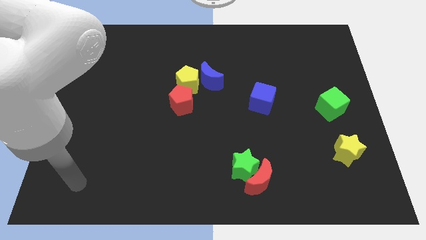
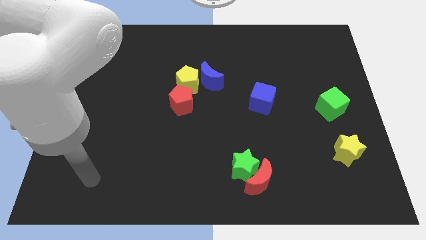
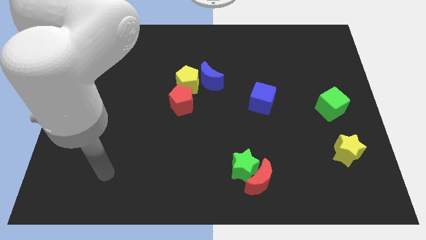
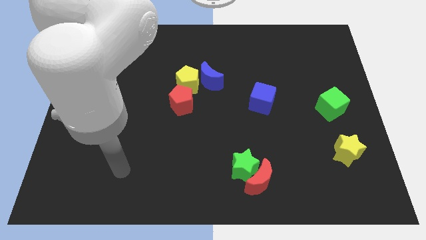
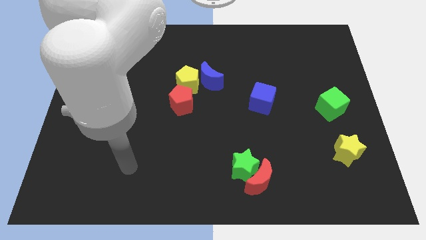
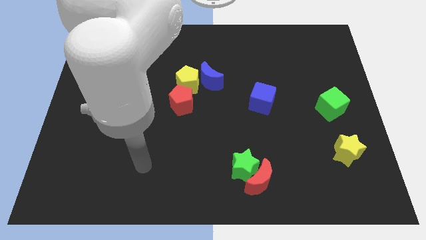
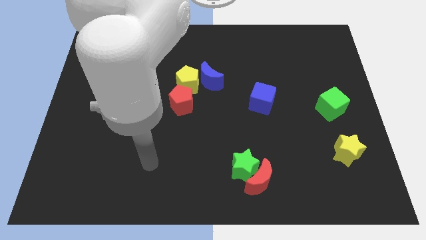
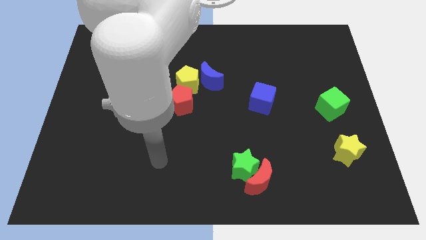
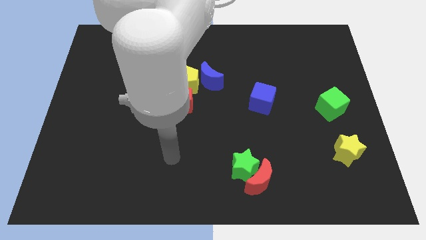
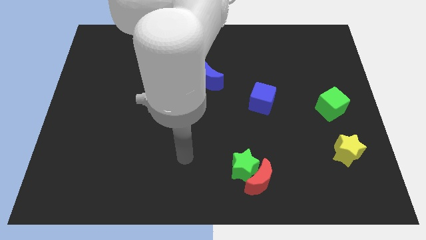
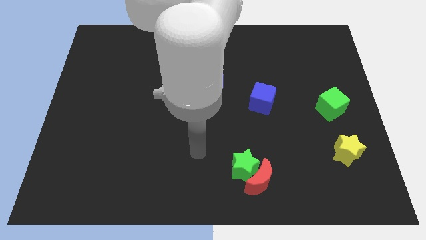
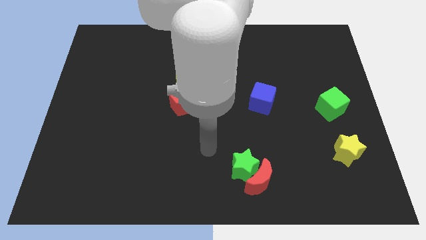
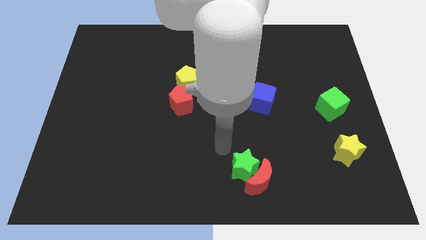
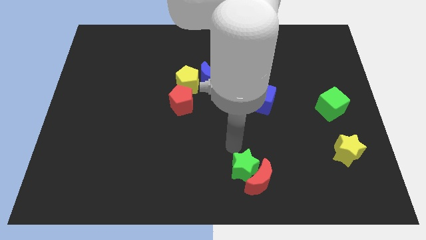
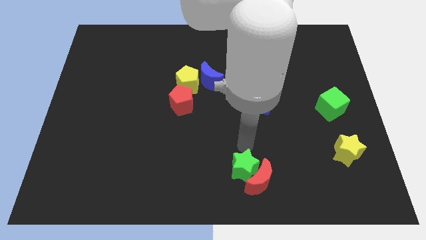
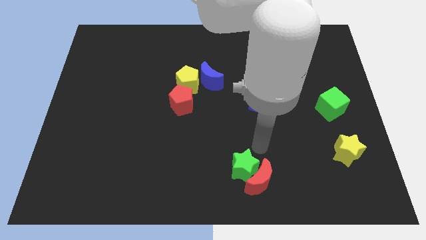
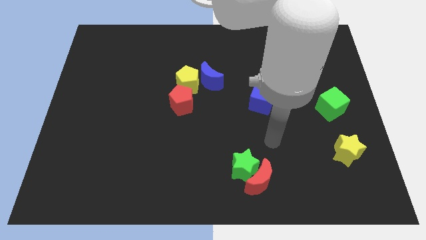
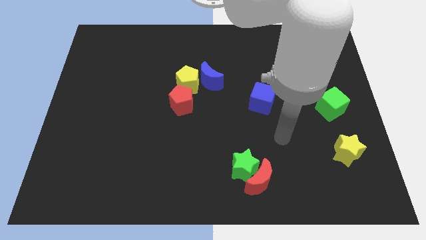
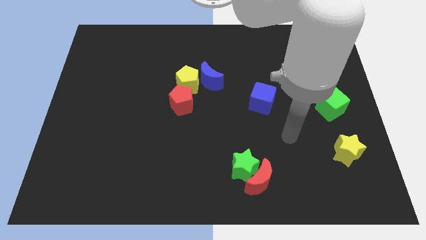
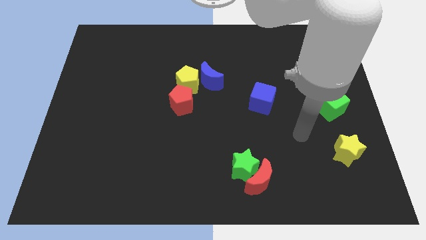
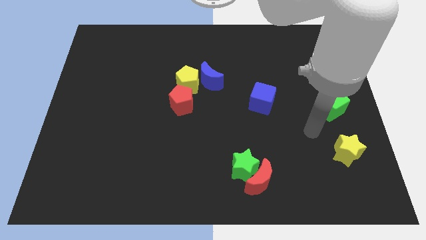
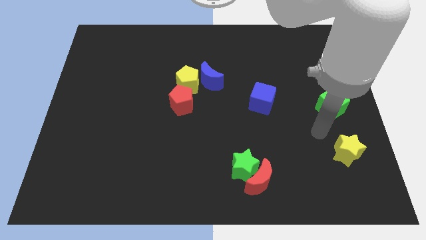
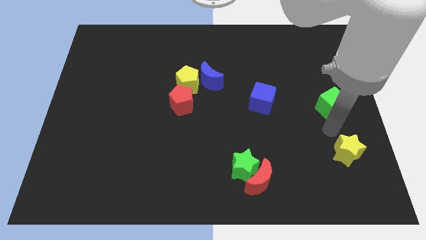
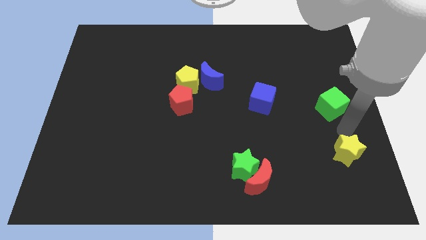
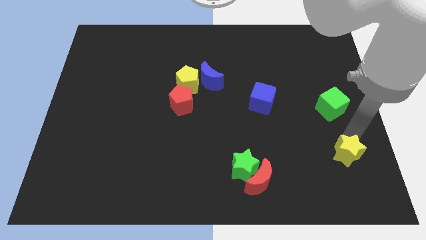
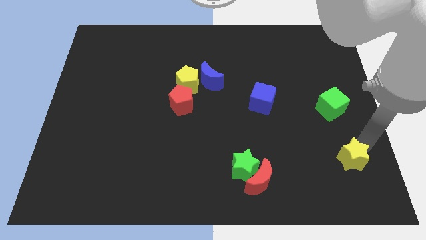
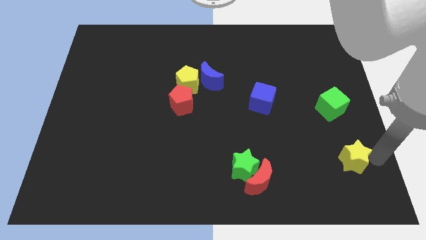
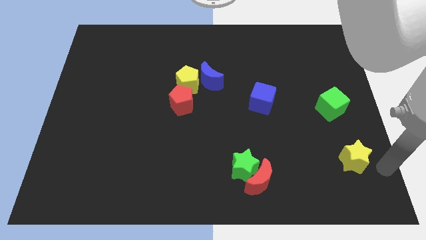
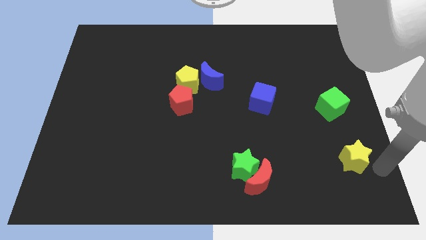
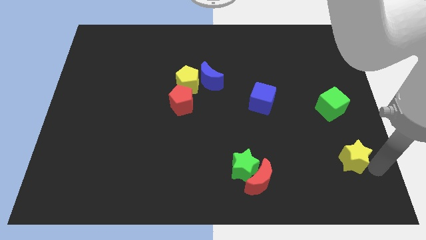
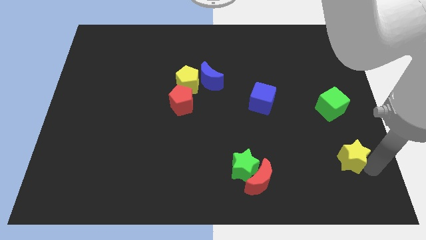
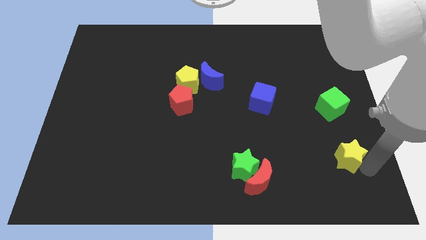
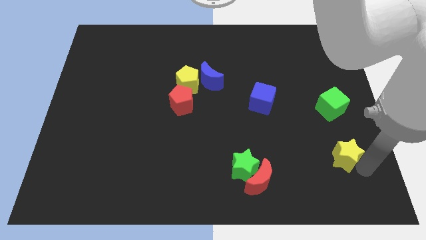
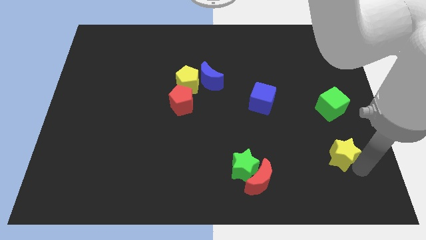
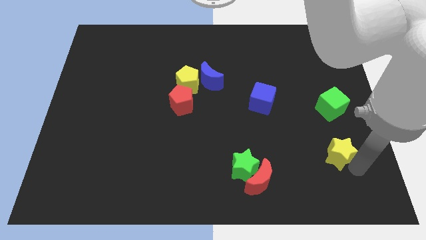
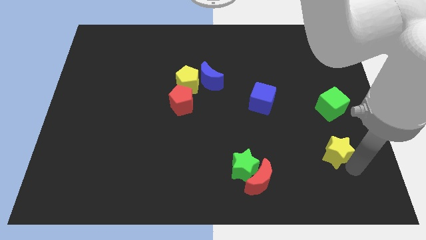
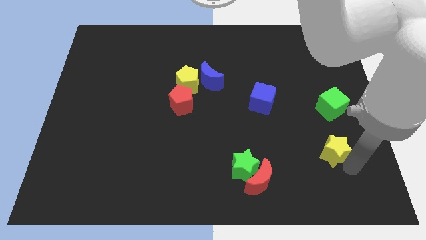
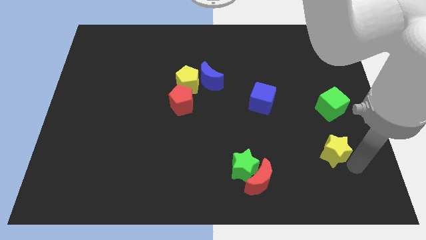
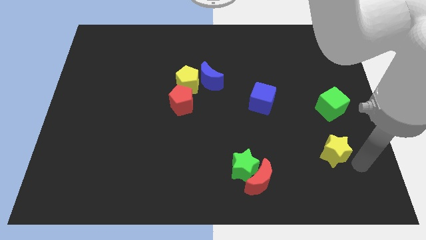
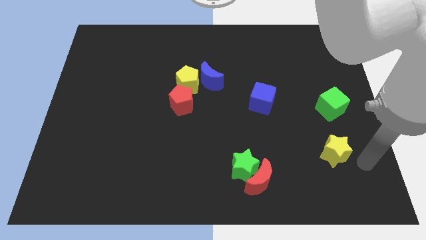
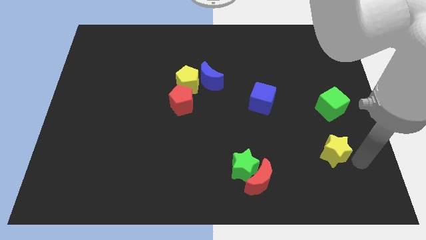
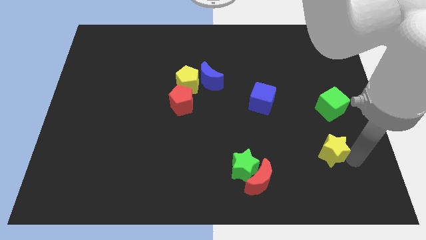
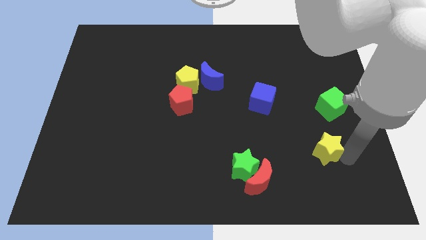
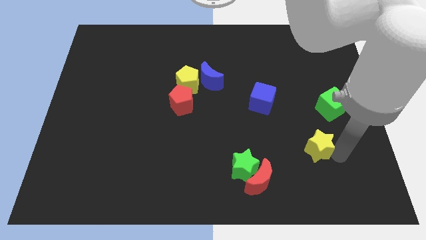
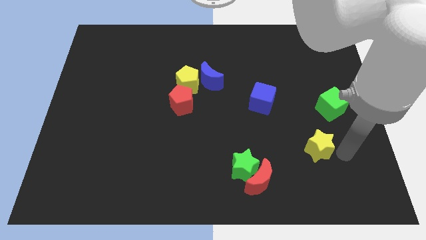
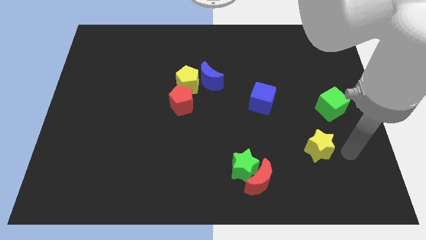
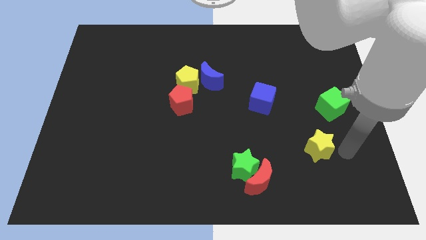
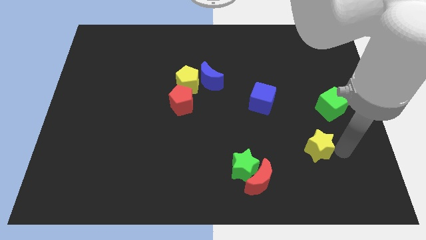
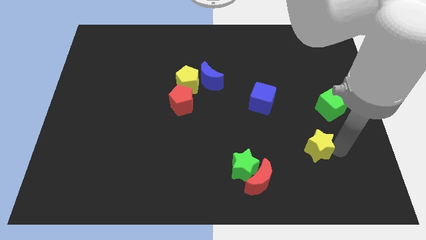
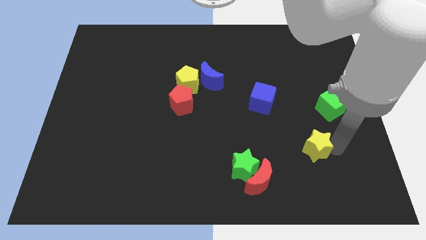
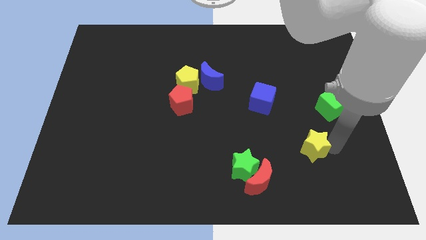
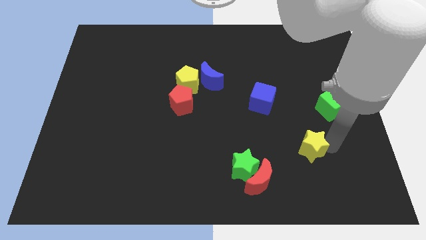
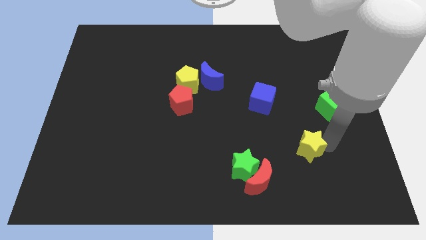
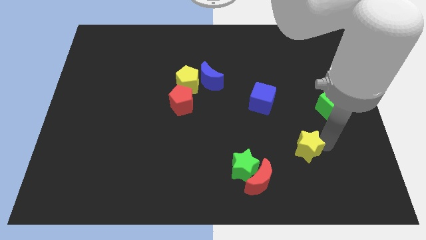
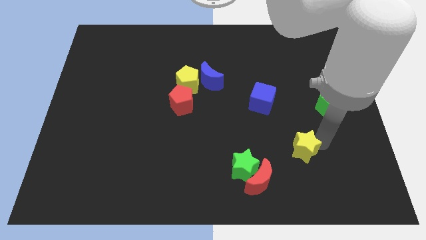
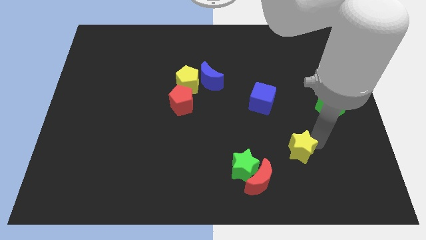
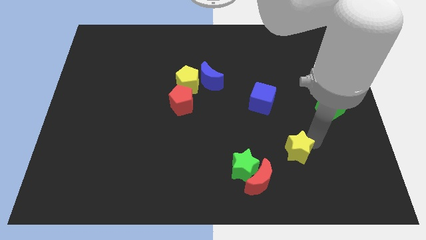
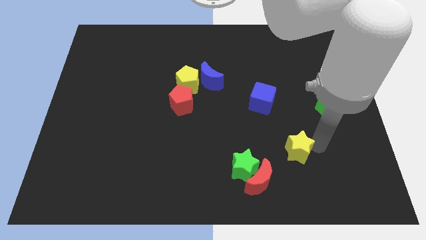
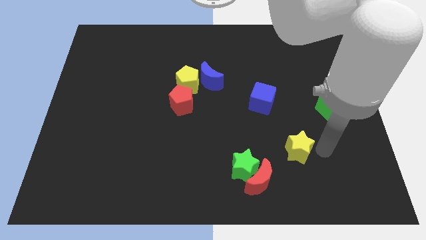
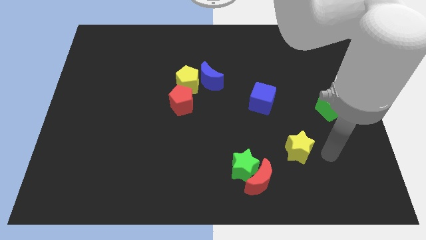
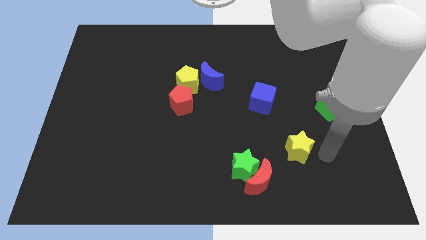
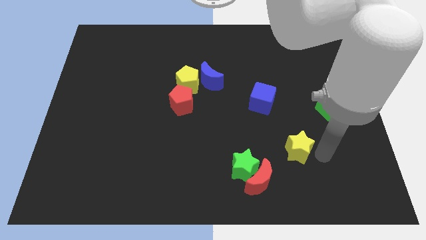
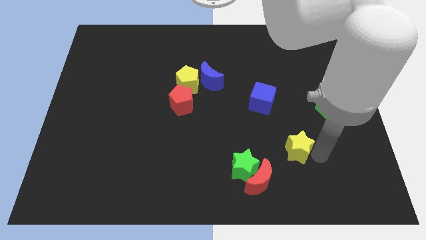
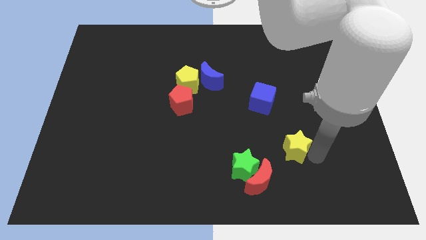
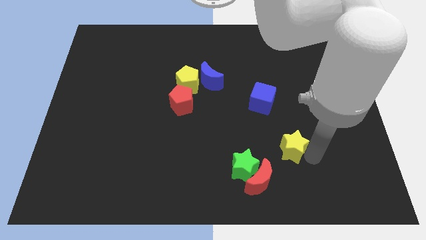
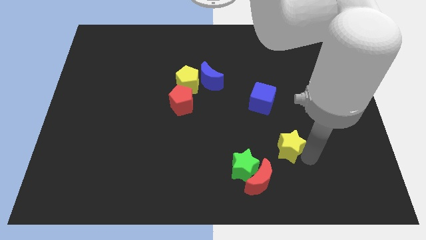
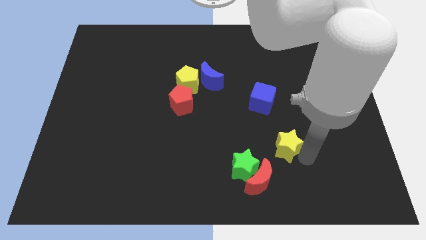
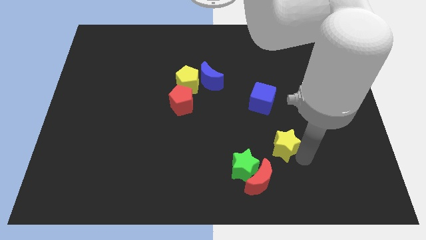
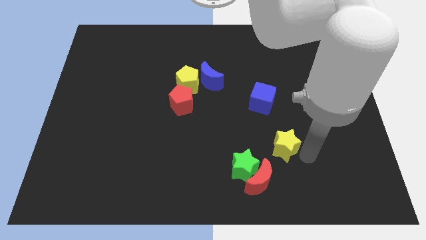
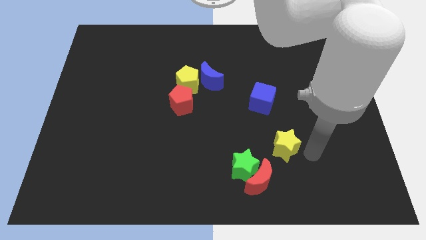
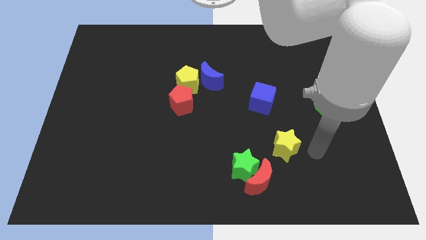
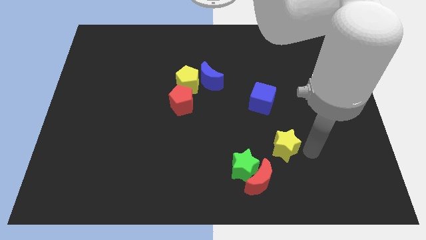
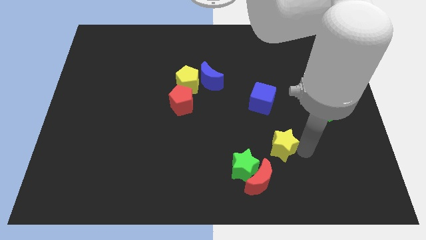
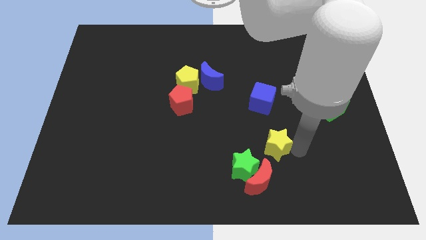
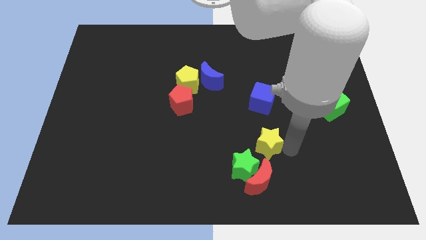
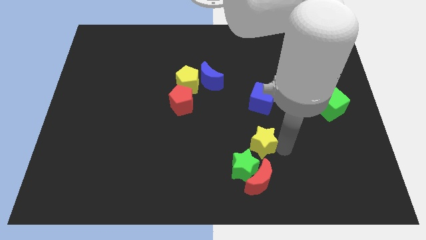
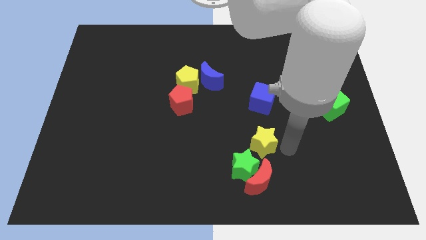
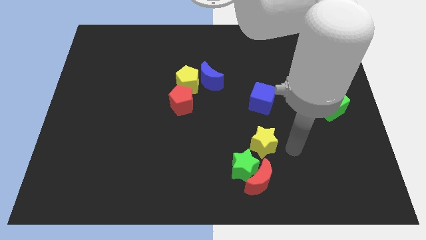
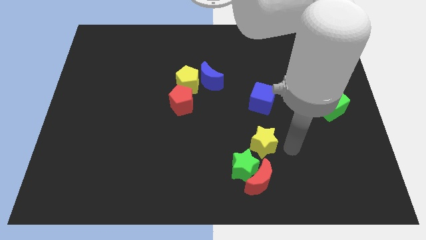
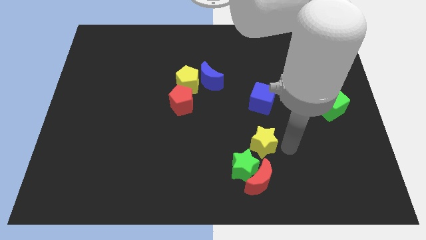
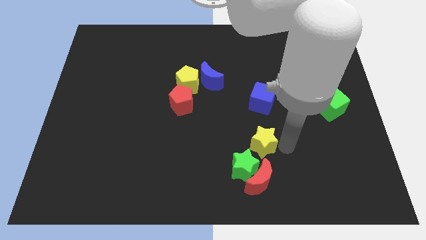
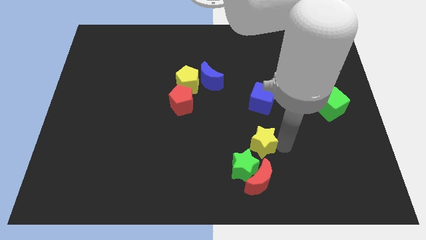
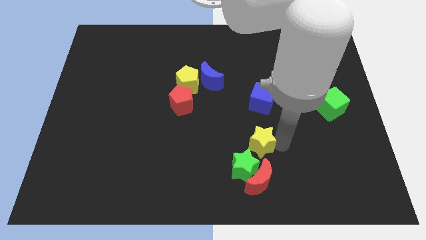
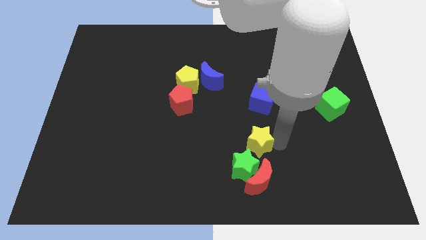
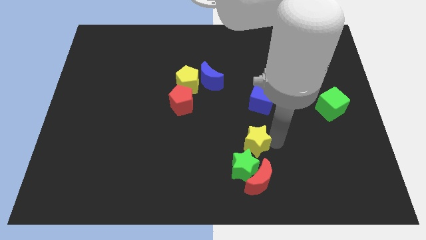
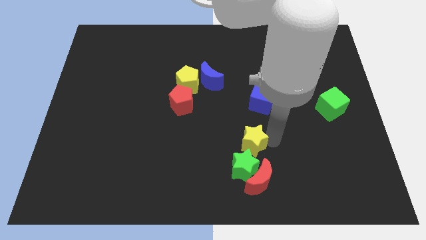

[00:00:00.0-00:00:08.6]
move the yellow star left
